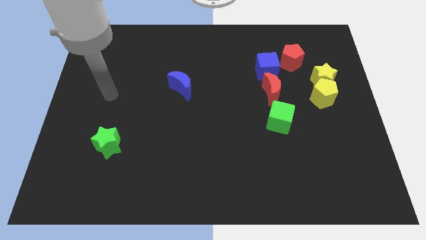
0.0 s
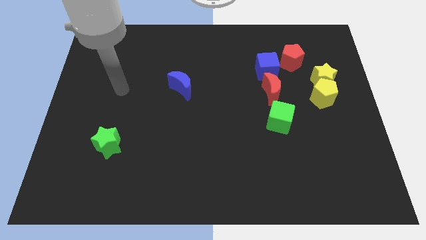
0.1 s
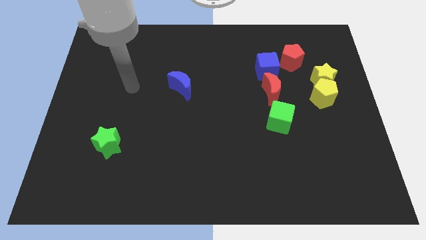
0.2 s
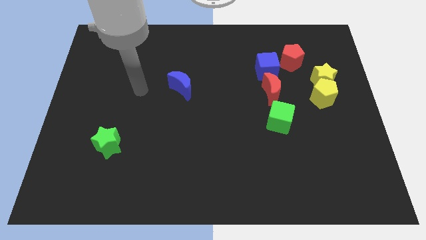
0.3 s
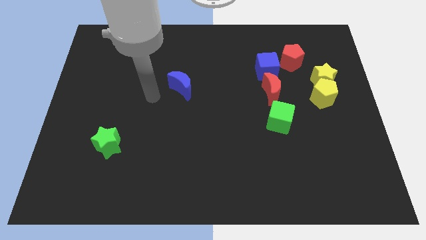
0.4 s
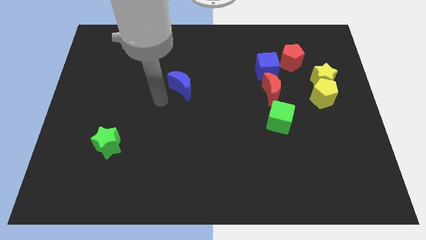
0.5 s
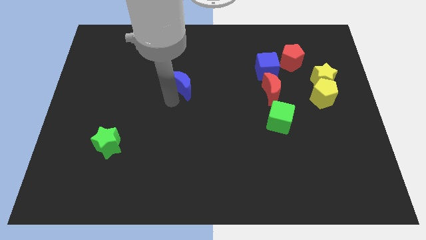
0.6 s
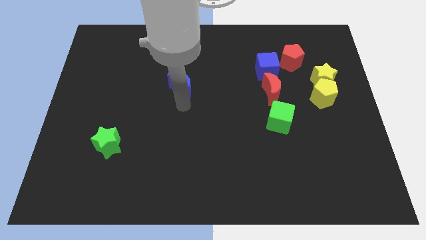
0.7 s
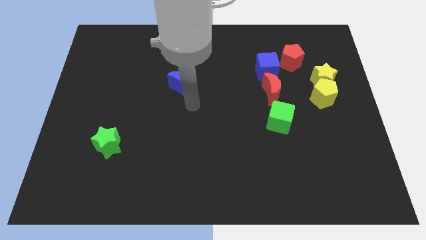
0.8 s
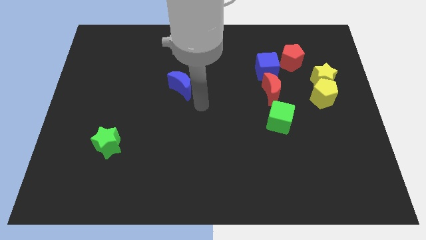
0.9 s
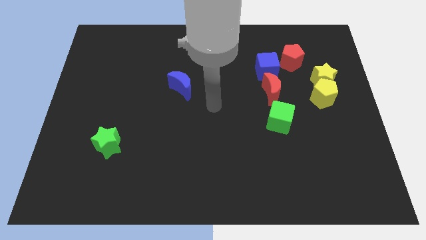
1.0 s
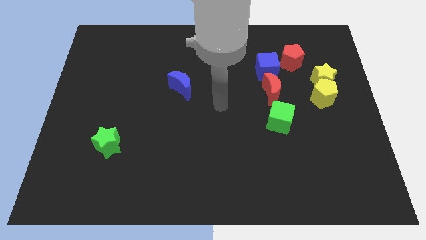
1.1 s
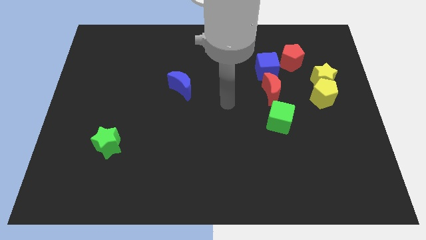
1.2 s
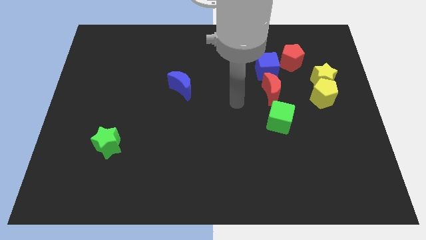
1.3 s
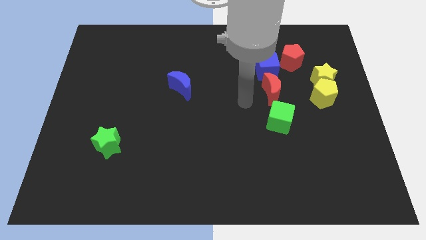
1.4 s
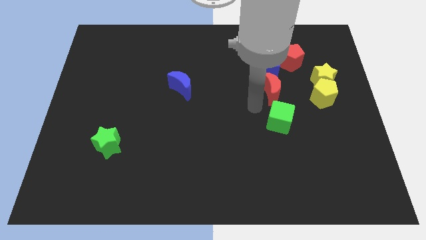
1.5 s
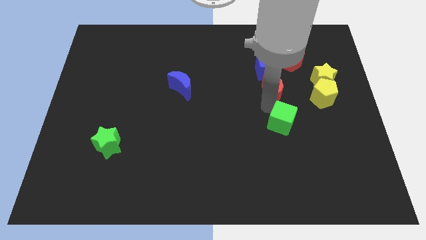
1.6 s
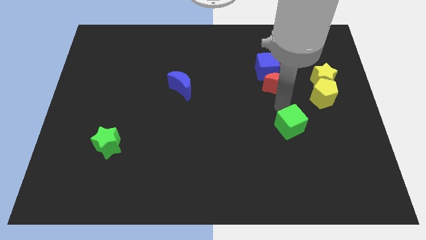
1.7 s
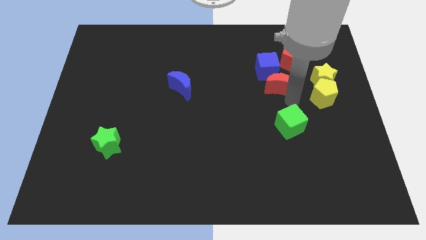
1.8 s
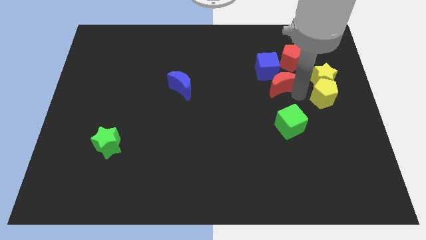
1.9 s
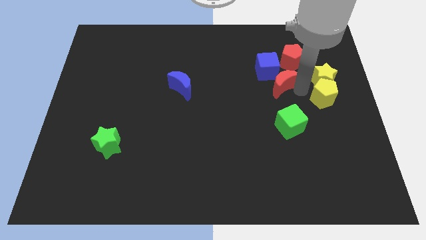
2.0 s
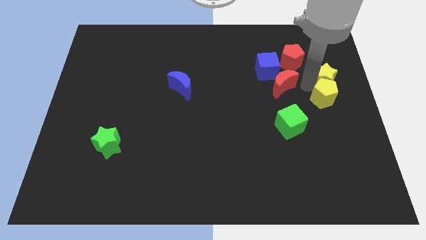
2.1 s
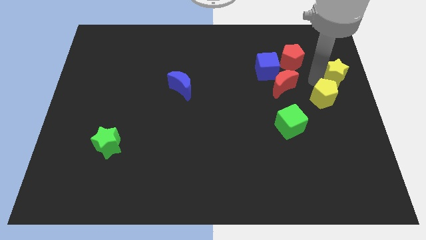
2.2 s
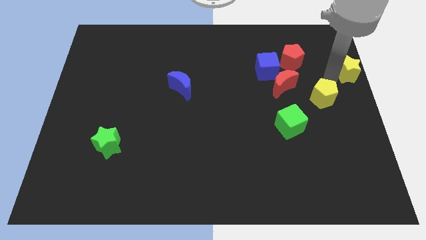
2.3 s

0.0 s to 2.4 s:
separate the yellow pentagon from the yellow star

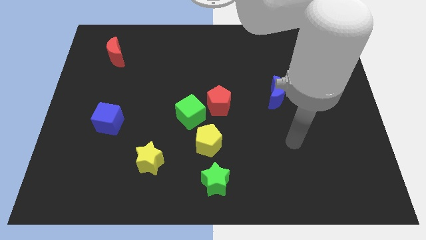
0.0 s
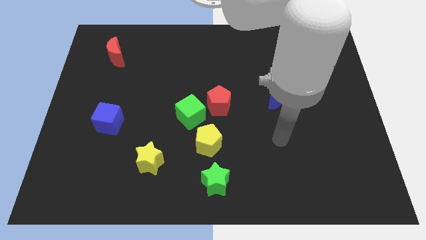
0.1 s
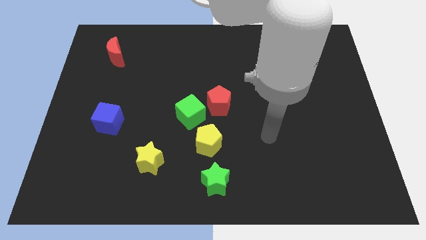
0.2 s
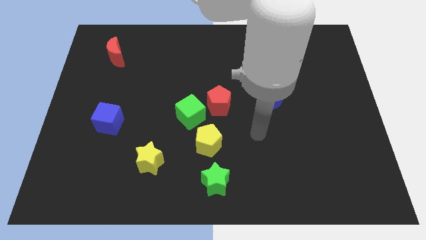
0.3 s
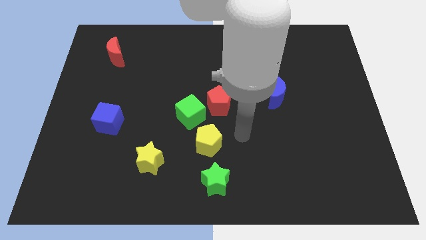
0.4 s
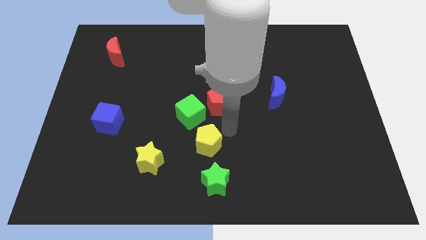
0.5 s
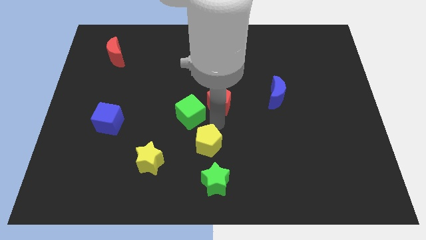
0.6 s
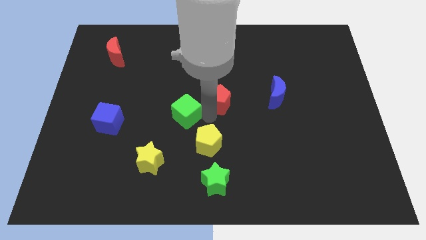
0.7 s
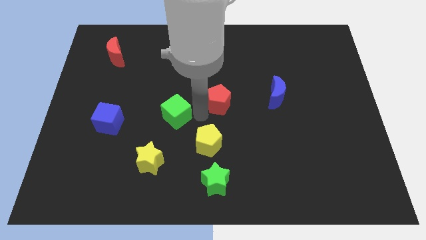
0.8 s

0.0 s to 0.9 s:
pull the red pentagon apart from the green cube

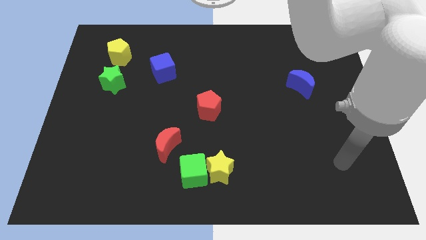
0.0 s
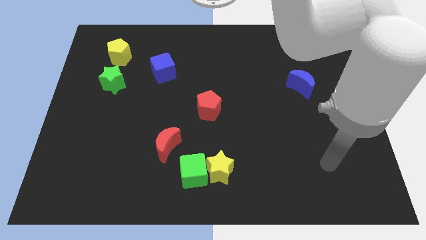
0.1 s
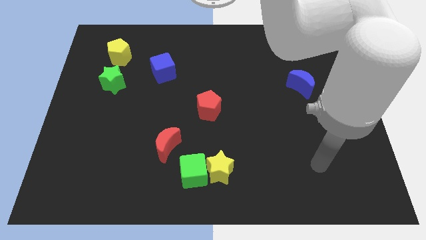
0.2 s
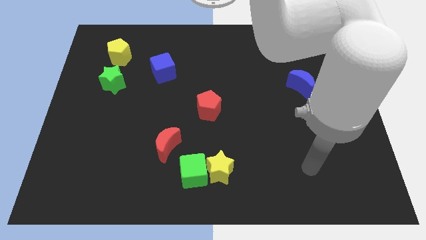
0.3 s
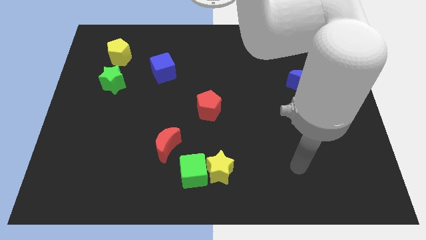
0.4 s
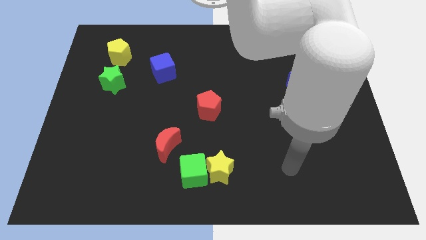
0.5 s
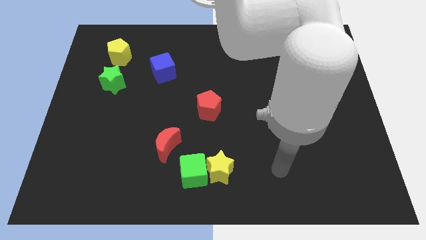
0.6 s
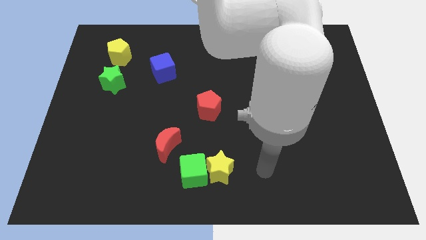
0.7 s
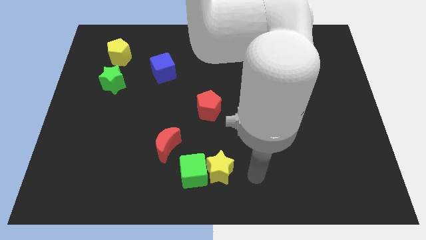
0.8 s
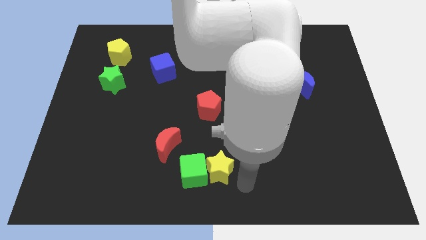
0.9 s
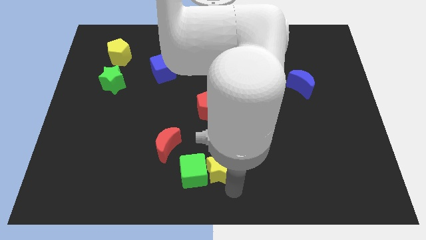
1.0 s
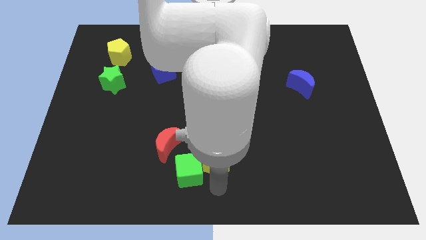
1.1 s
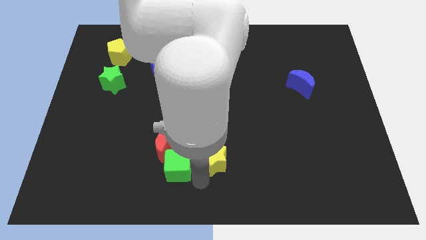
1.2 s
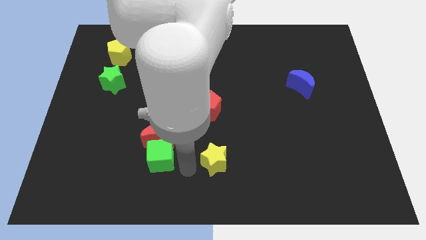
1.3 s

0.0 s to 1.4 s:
pull the yellow star apart from the green cube

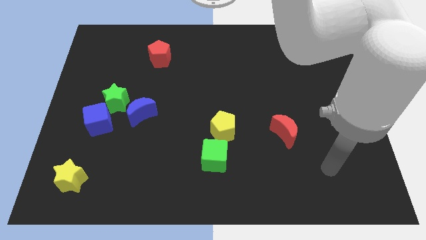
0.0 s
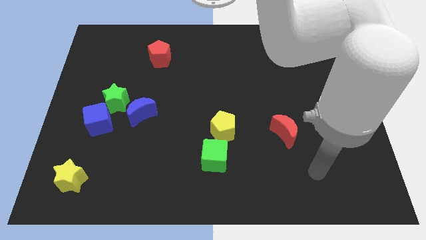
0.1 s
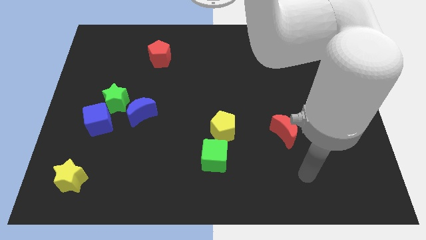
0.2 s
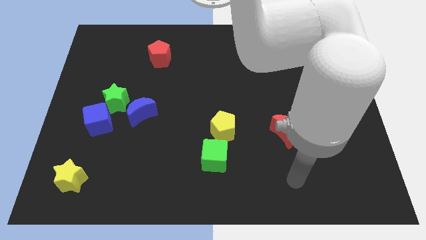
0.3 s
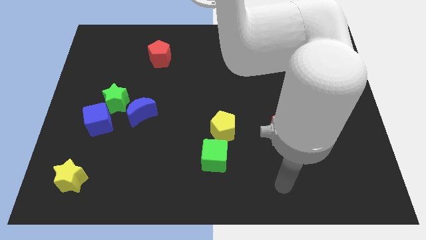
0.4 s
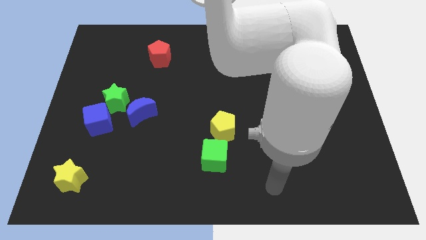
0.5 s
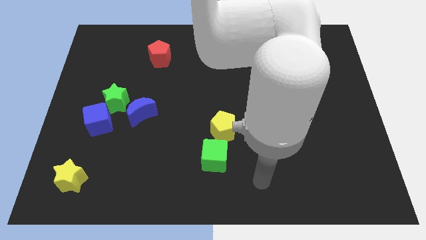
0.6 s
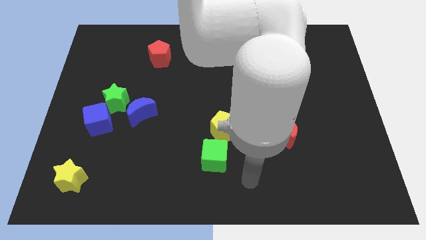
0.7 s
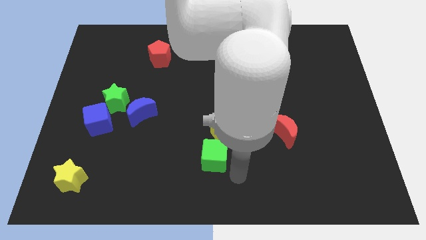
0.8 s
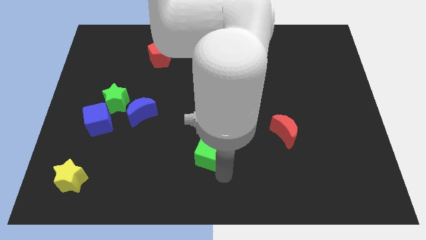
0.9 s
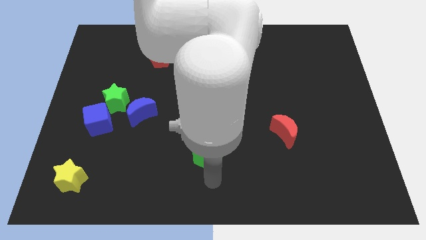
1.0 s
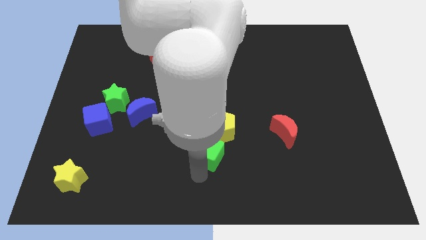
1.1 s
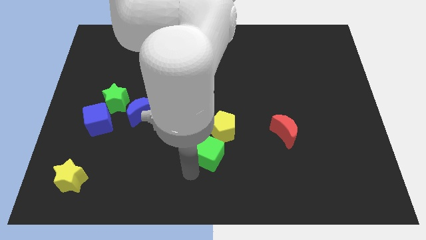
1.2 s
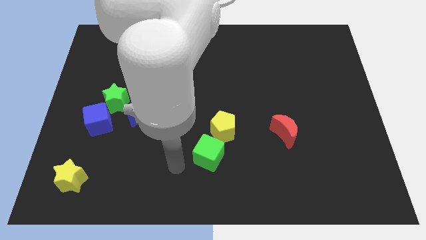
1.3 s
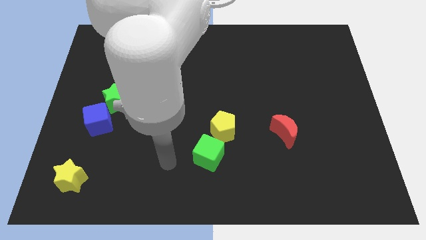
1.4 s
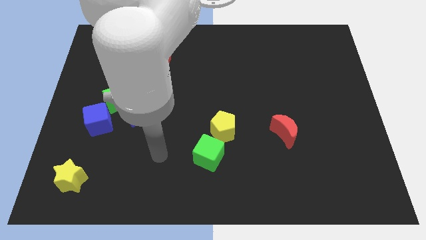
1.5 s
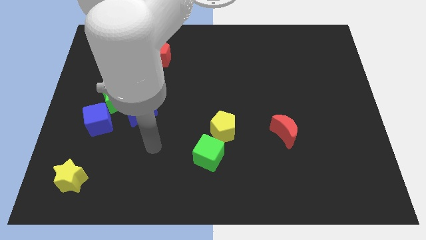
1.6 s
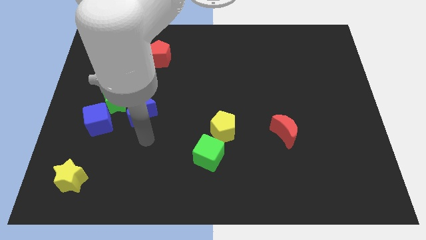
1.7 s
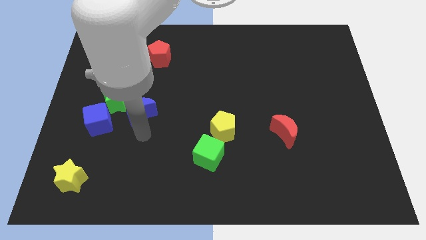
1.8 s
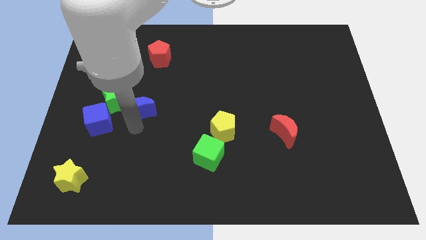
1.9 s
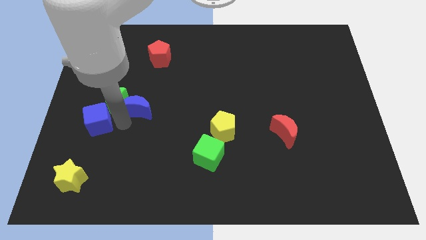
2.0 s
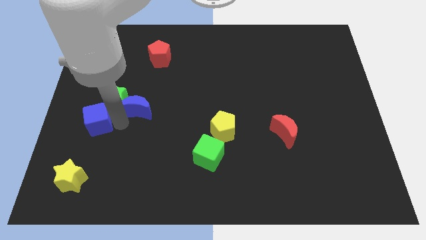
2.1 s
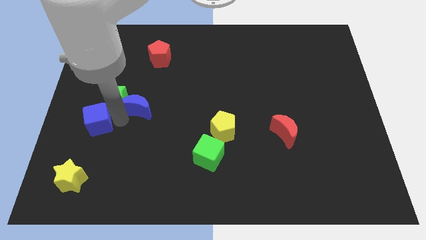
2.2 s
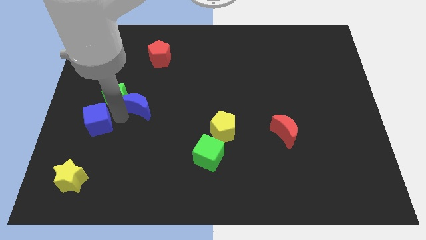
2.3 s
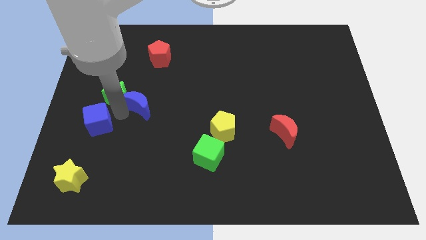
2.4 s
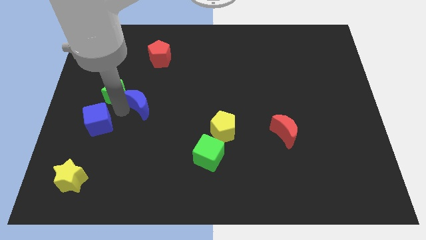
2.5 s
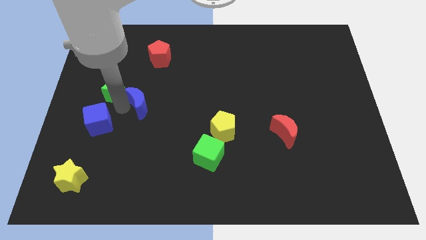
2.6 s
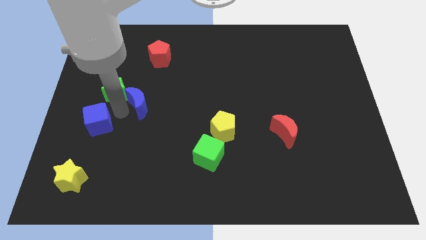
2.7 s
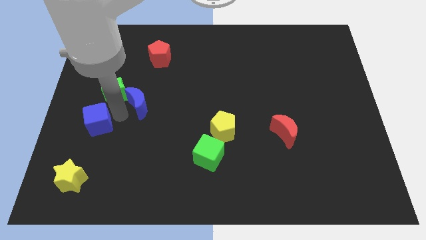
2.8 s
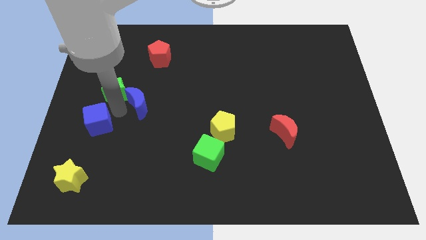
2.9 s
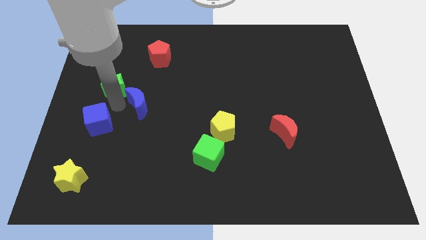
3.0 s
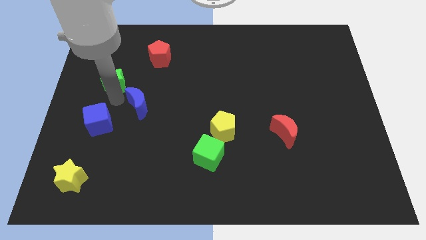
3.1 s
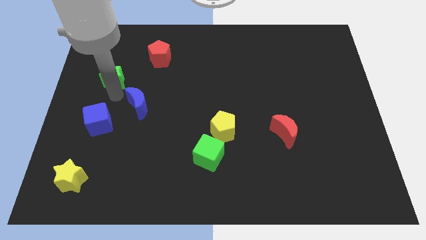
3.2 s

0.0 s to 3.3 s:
pull the green star apart from the blue cube and blue moon

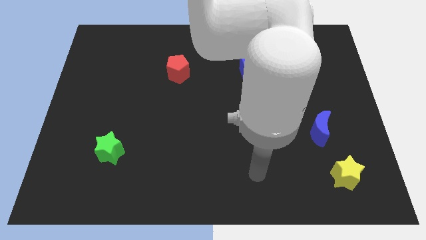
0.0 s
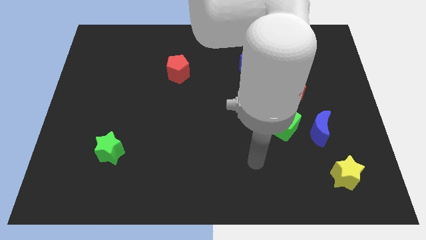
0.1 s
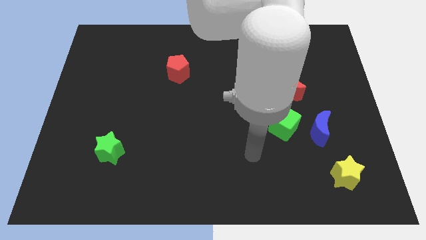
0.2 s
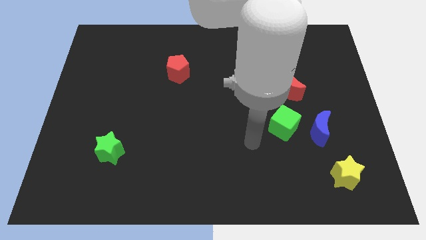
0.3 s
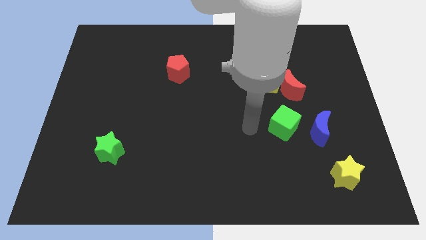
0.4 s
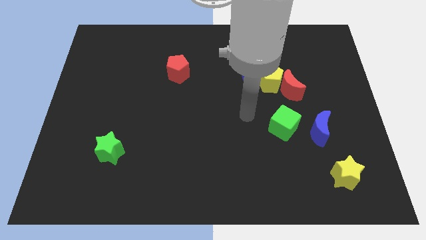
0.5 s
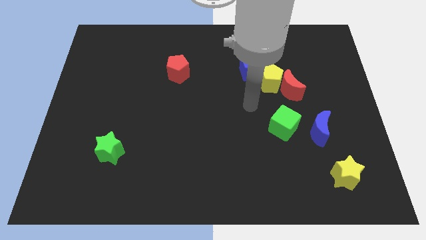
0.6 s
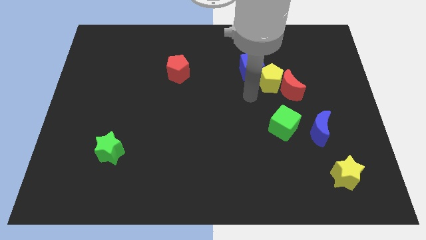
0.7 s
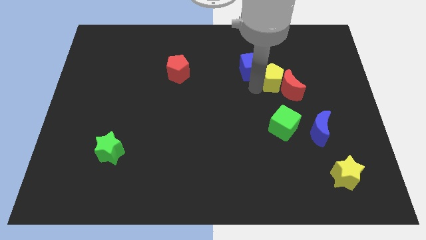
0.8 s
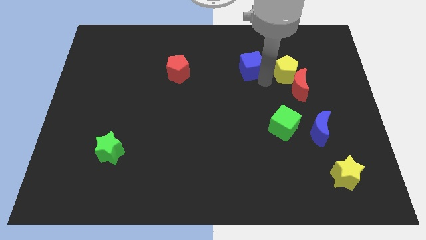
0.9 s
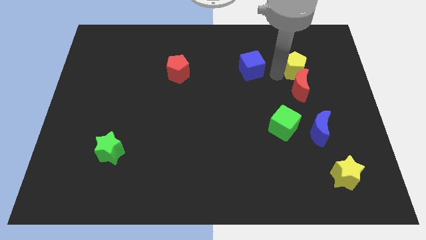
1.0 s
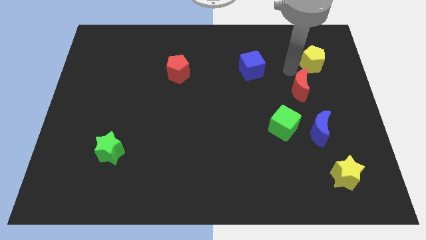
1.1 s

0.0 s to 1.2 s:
move the red moon away from the yellow pentagon

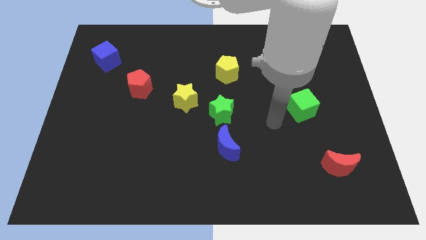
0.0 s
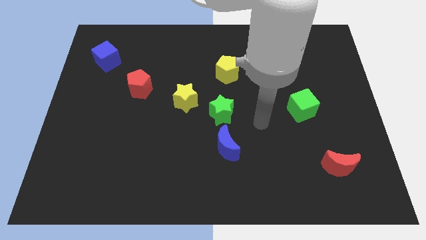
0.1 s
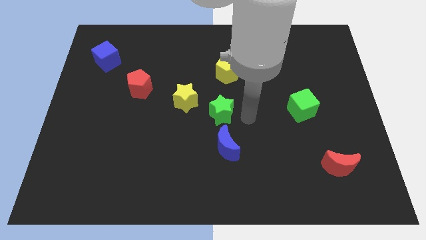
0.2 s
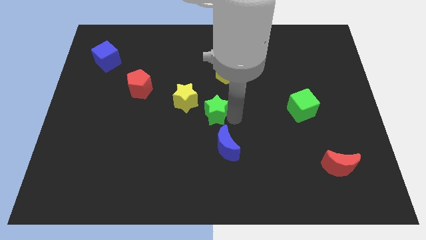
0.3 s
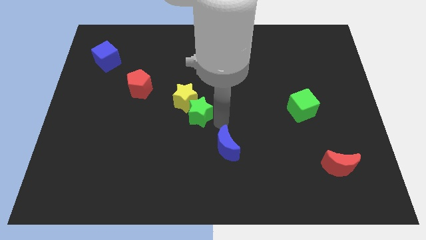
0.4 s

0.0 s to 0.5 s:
separate the blue moon from the green star
